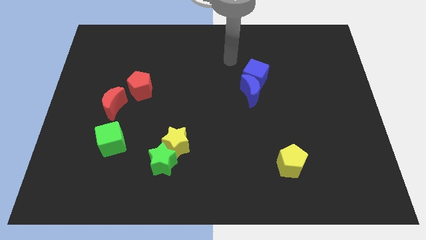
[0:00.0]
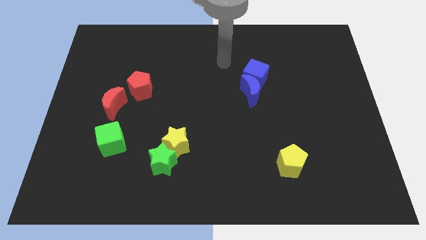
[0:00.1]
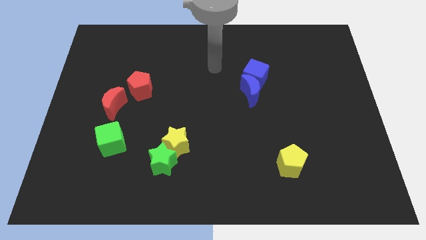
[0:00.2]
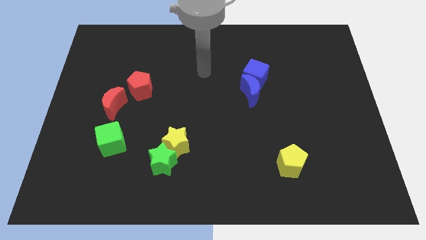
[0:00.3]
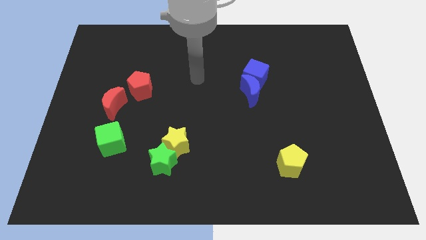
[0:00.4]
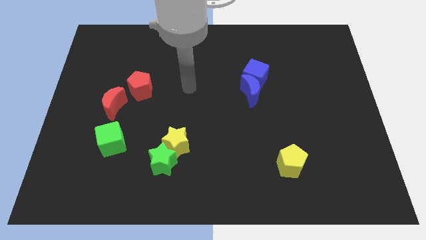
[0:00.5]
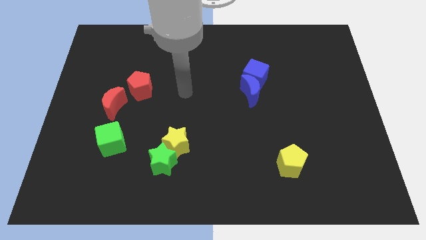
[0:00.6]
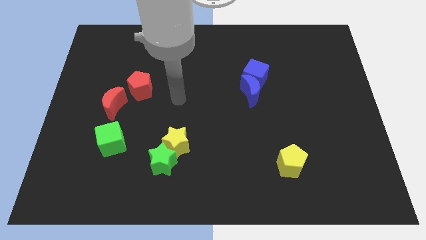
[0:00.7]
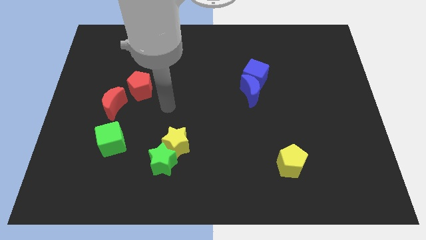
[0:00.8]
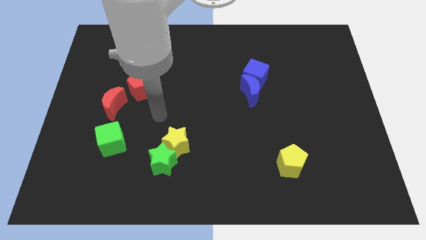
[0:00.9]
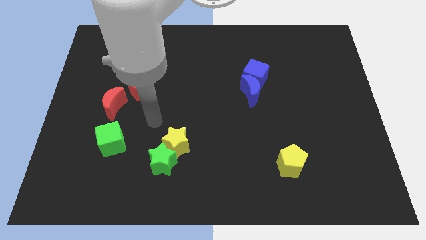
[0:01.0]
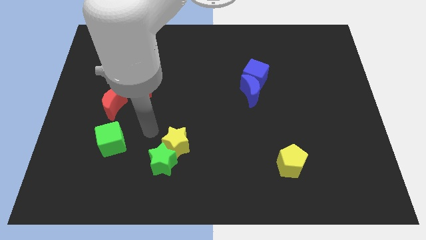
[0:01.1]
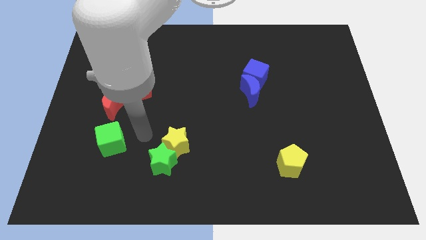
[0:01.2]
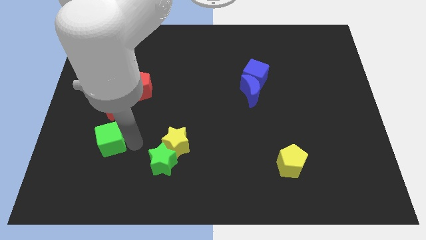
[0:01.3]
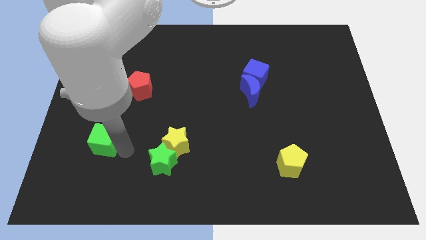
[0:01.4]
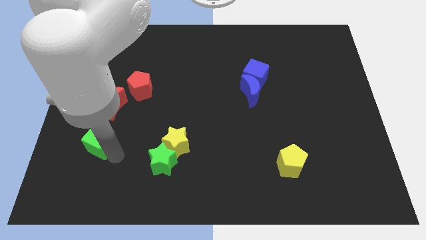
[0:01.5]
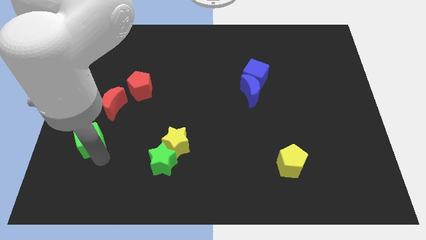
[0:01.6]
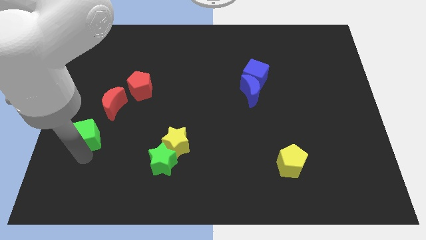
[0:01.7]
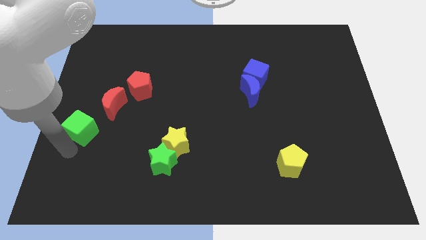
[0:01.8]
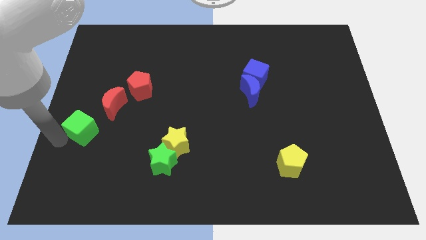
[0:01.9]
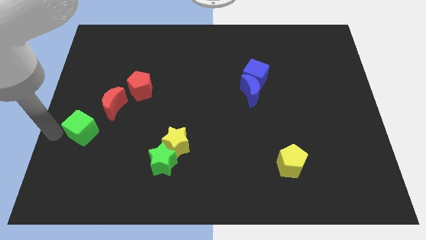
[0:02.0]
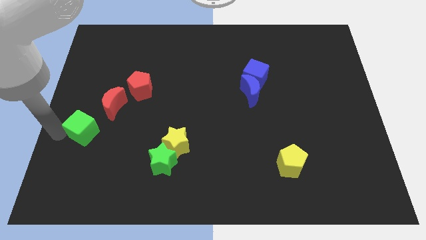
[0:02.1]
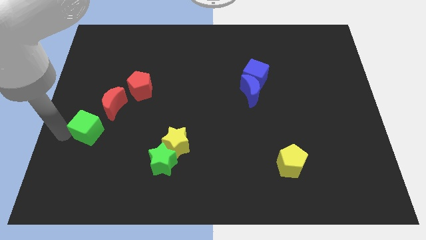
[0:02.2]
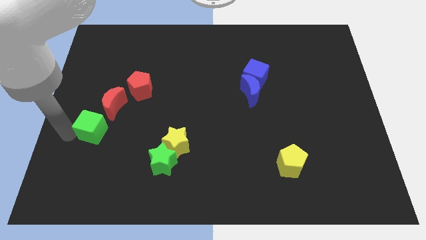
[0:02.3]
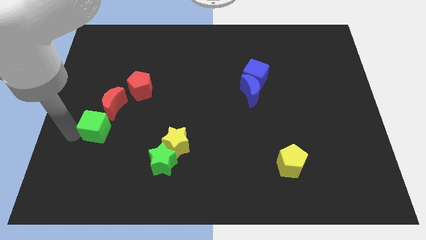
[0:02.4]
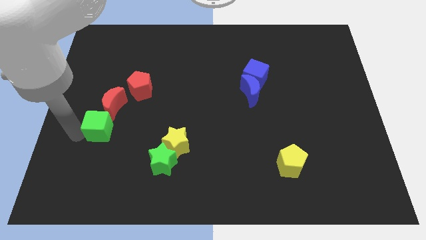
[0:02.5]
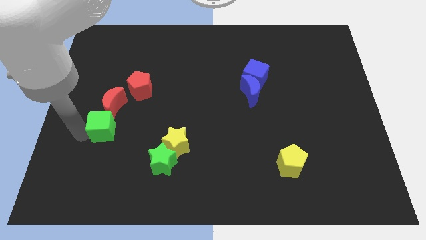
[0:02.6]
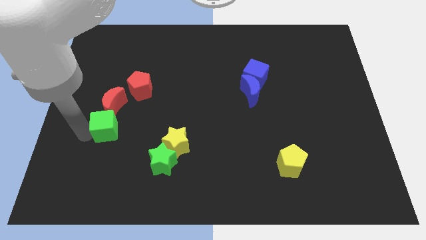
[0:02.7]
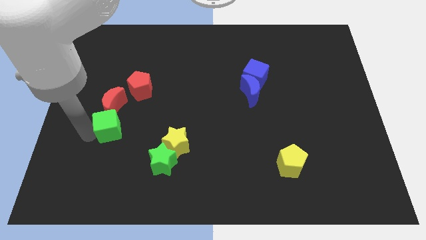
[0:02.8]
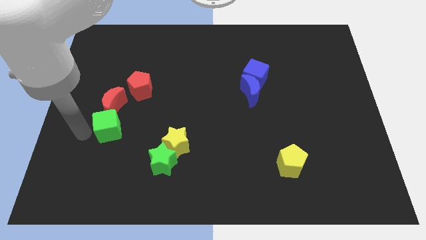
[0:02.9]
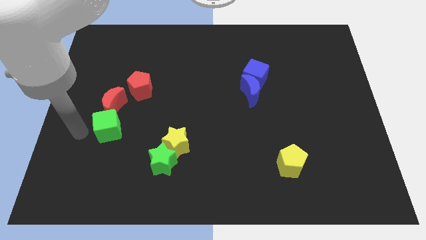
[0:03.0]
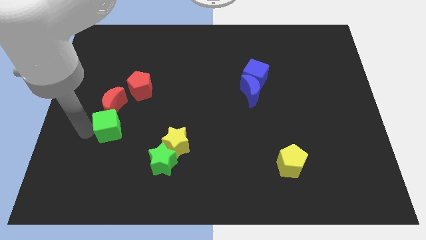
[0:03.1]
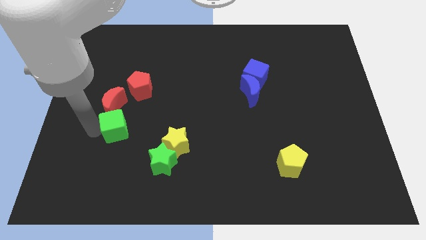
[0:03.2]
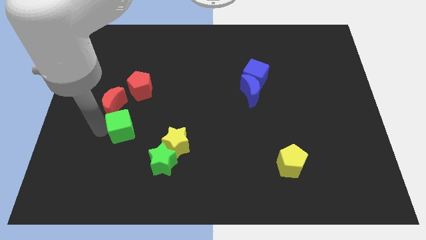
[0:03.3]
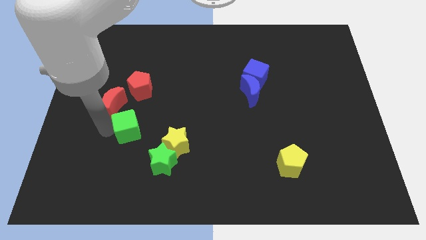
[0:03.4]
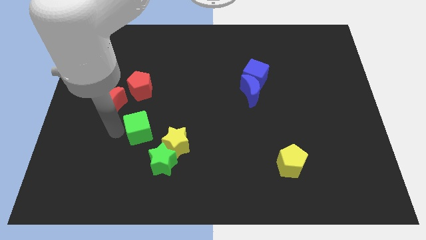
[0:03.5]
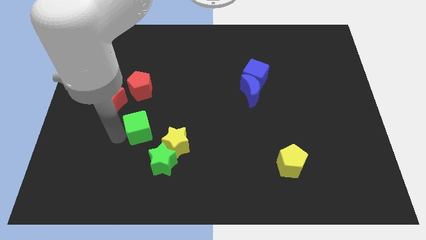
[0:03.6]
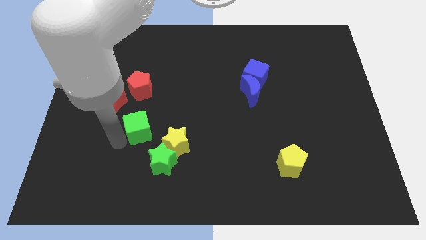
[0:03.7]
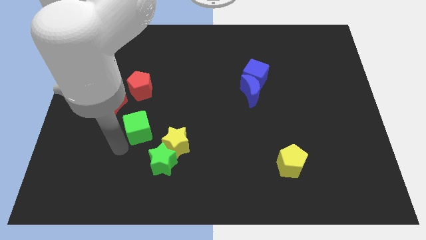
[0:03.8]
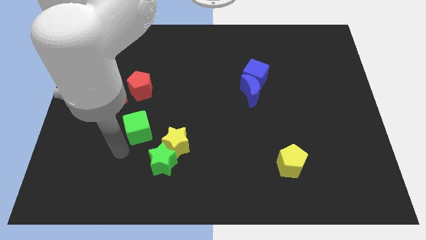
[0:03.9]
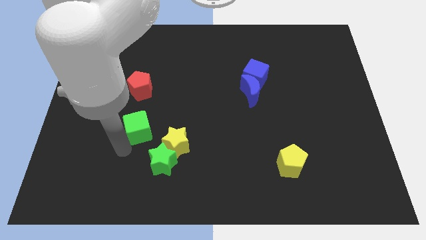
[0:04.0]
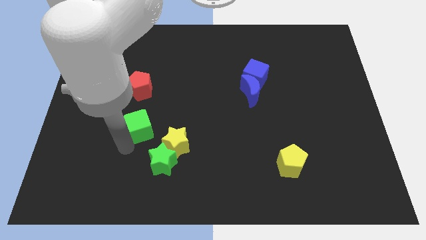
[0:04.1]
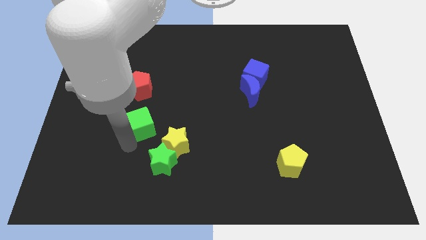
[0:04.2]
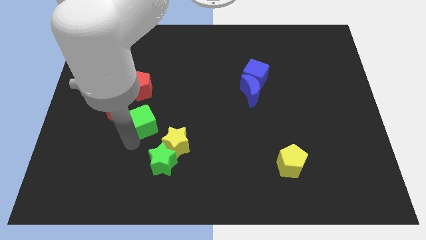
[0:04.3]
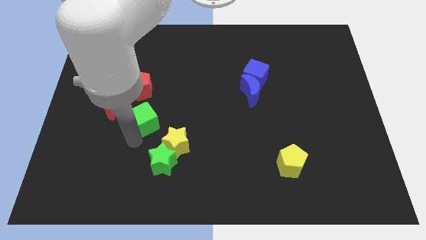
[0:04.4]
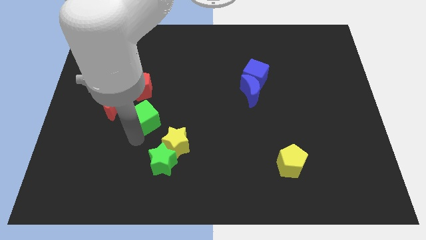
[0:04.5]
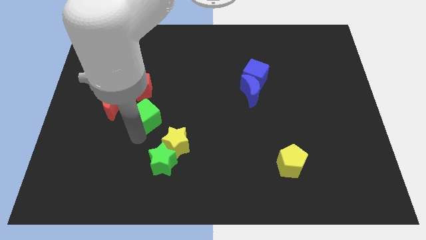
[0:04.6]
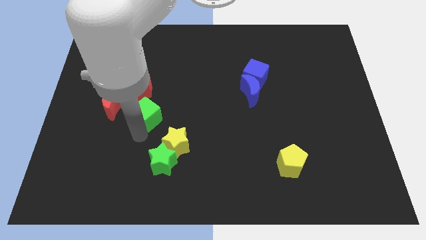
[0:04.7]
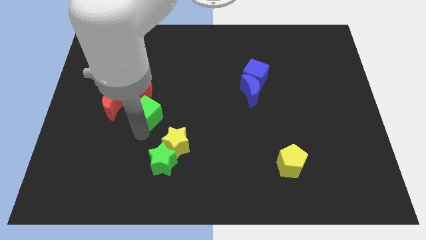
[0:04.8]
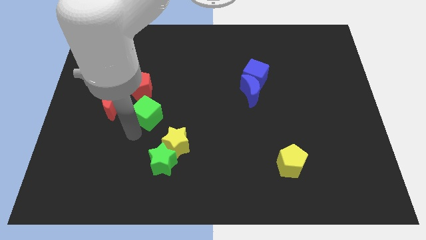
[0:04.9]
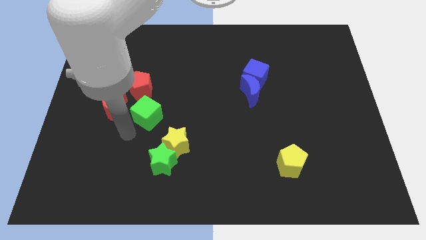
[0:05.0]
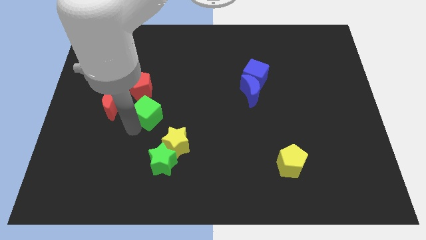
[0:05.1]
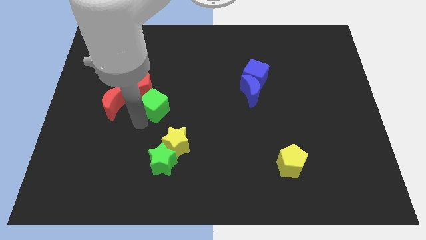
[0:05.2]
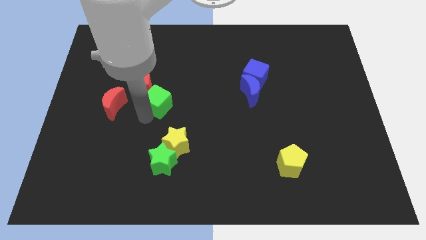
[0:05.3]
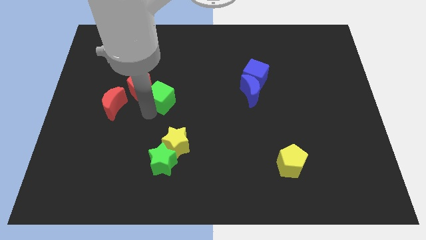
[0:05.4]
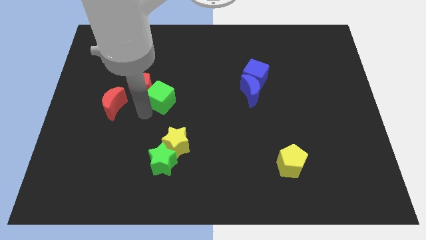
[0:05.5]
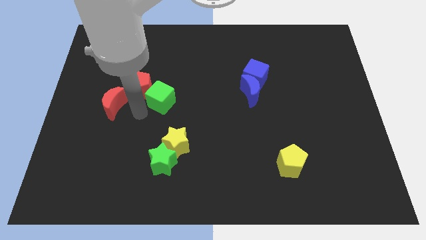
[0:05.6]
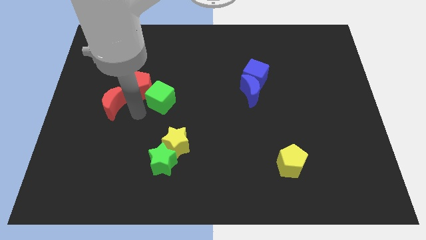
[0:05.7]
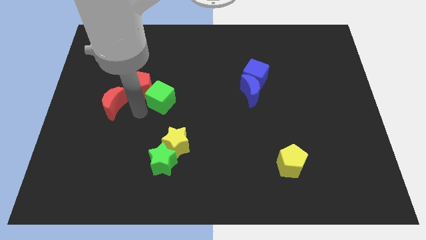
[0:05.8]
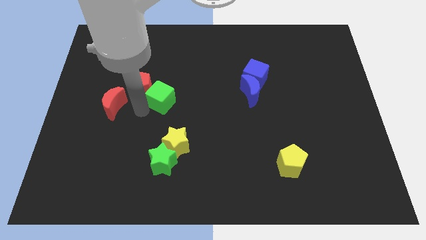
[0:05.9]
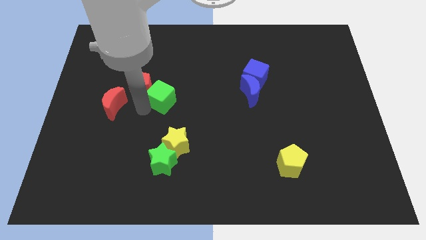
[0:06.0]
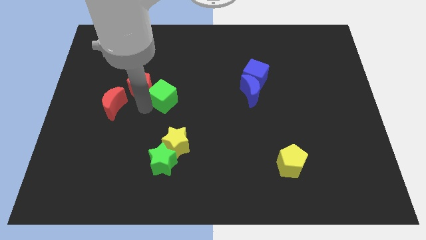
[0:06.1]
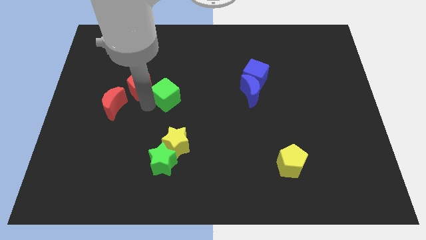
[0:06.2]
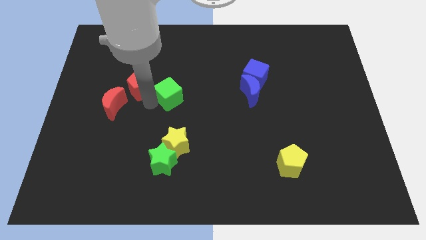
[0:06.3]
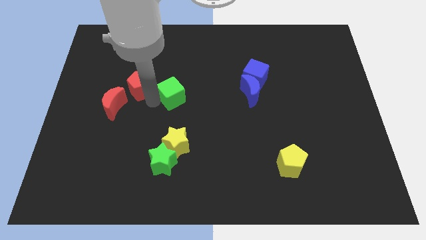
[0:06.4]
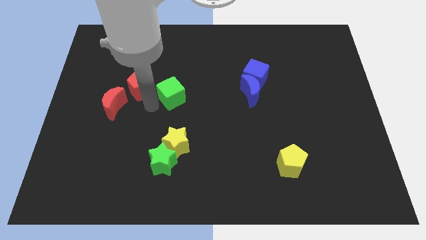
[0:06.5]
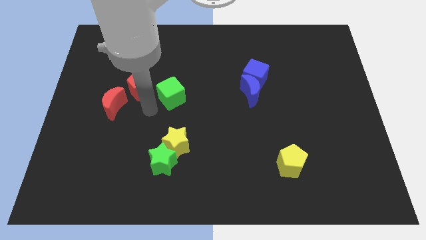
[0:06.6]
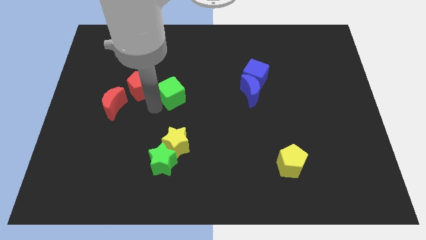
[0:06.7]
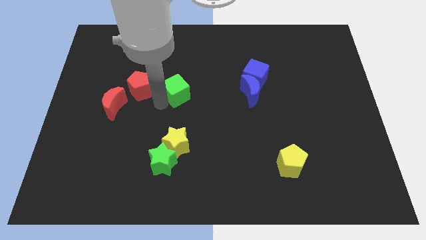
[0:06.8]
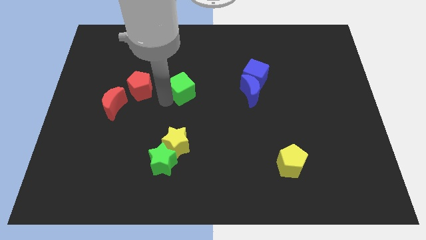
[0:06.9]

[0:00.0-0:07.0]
move the green cube up and to the right

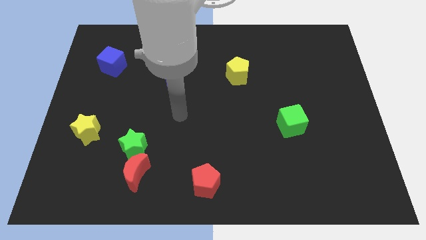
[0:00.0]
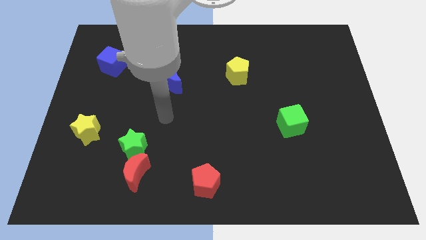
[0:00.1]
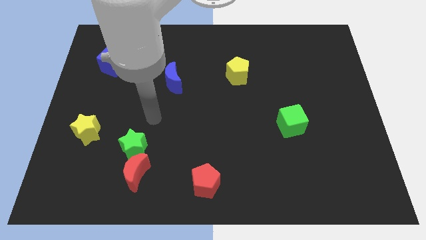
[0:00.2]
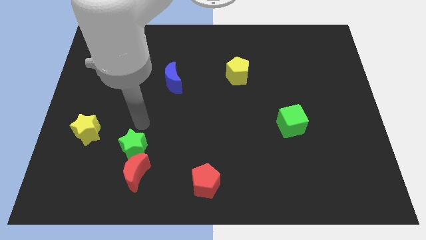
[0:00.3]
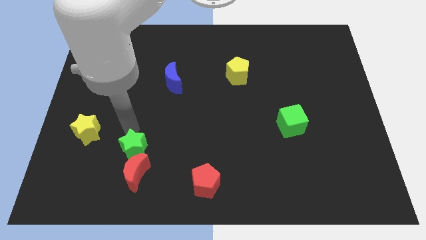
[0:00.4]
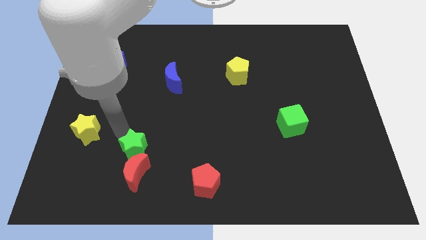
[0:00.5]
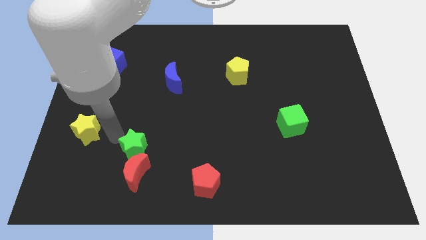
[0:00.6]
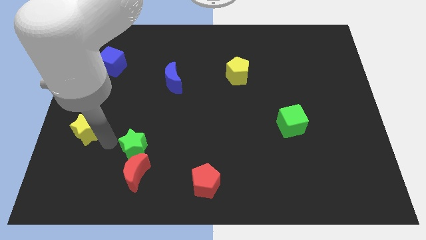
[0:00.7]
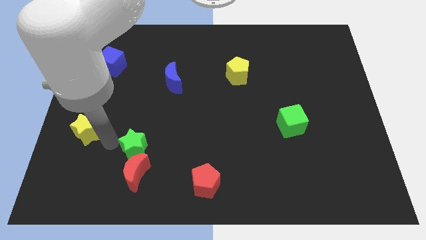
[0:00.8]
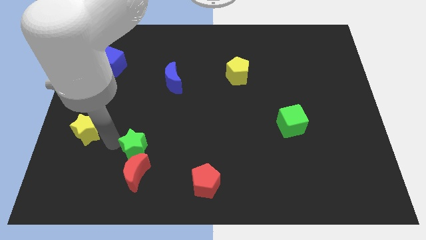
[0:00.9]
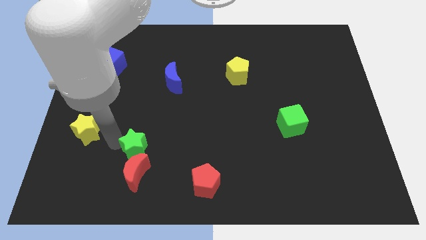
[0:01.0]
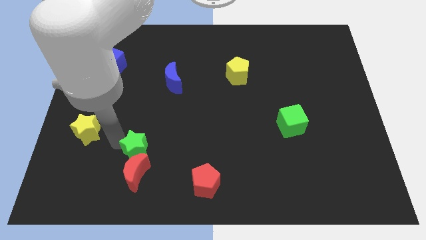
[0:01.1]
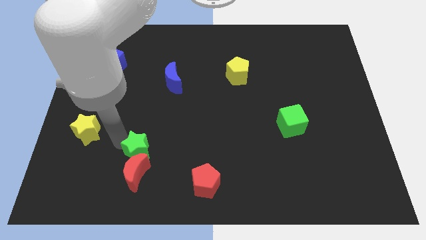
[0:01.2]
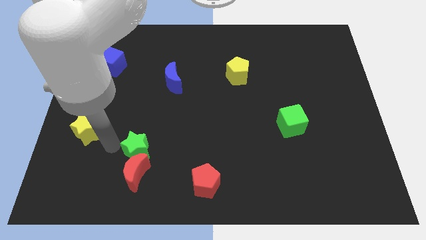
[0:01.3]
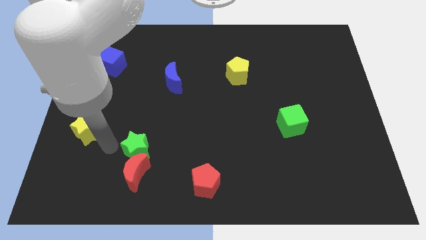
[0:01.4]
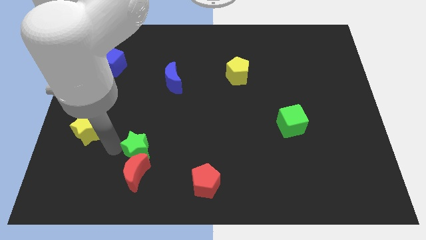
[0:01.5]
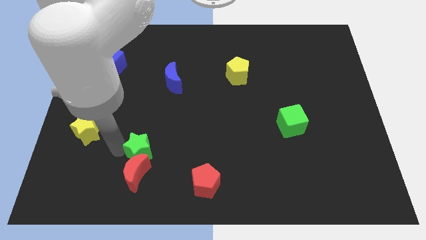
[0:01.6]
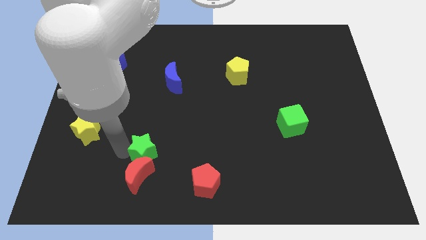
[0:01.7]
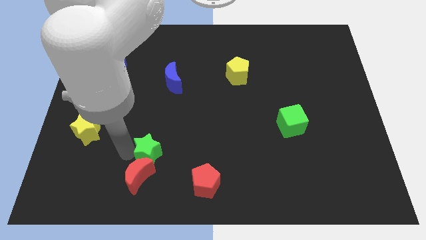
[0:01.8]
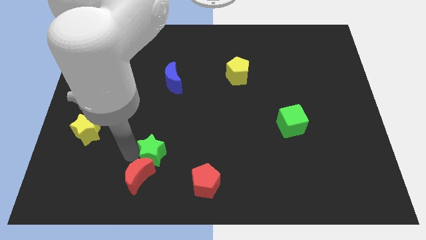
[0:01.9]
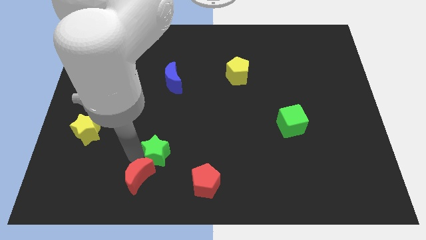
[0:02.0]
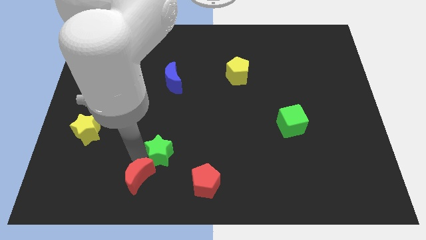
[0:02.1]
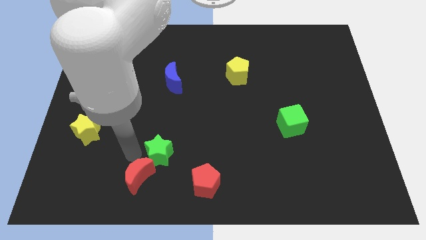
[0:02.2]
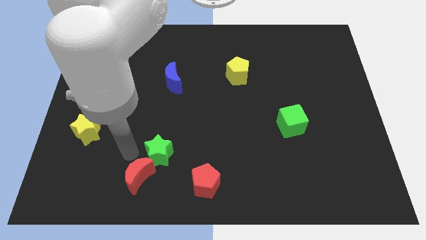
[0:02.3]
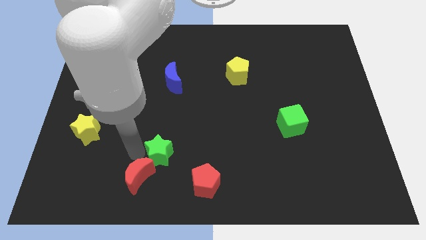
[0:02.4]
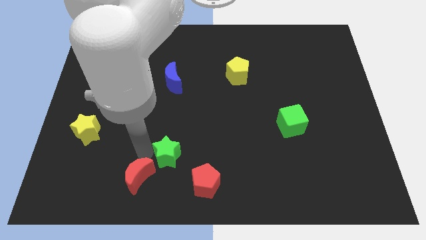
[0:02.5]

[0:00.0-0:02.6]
move the green star a little bit to the right
